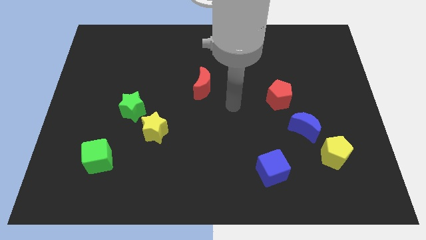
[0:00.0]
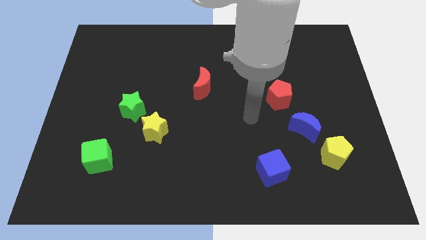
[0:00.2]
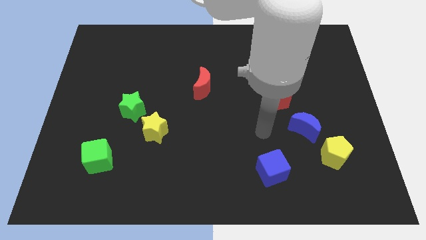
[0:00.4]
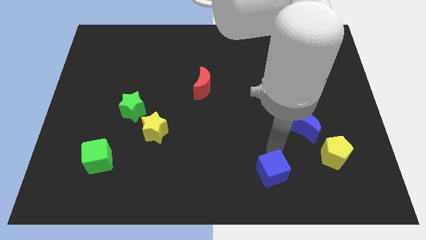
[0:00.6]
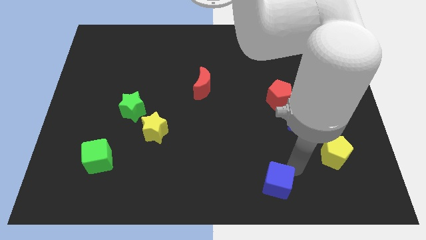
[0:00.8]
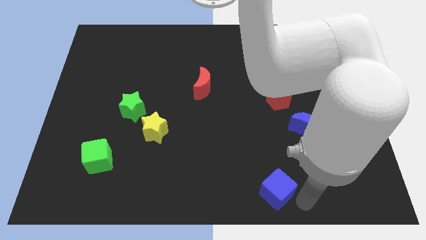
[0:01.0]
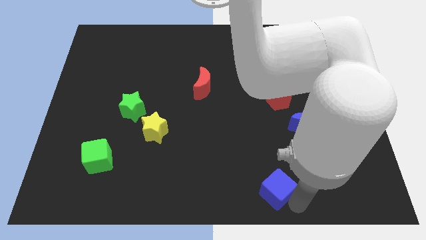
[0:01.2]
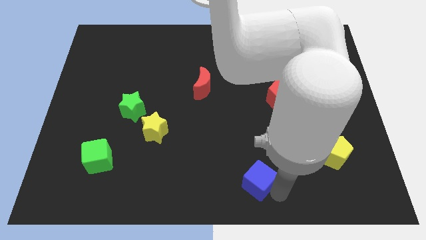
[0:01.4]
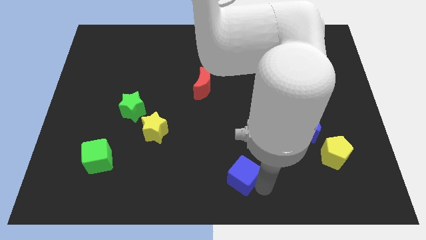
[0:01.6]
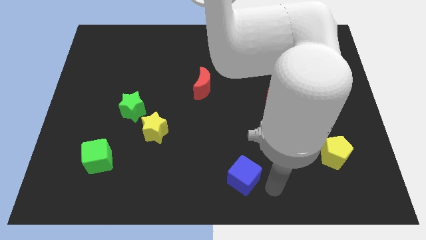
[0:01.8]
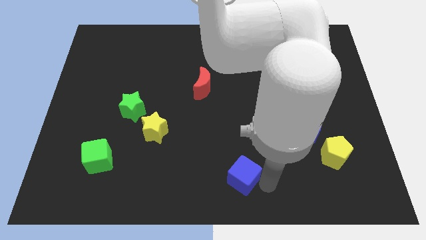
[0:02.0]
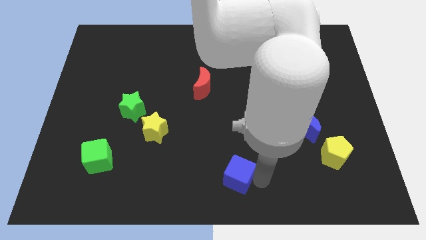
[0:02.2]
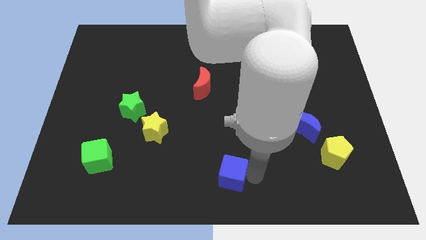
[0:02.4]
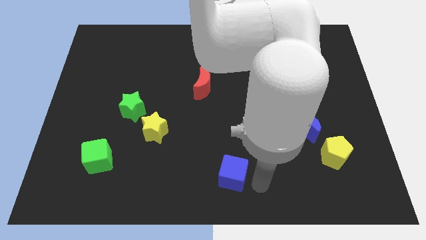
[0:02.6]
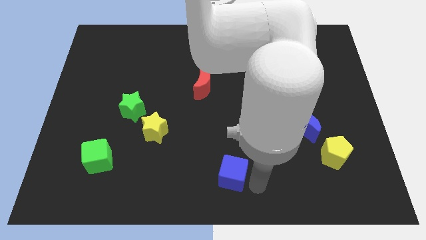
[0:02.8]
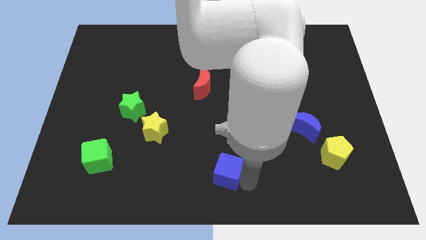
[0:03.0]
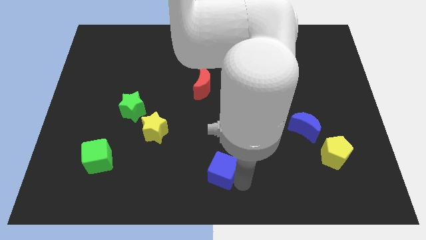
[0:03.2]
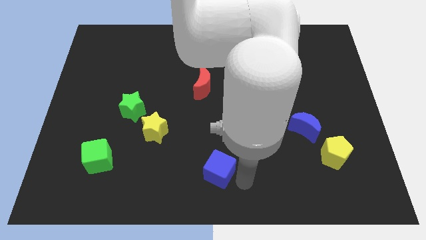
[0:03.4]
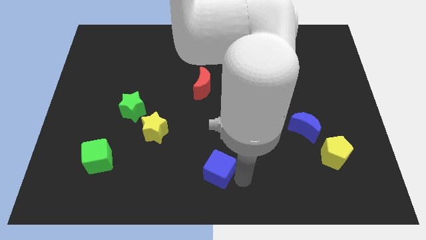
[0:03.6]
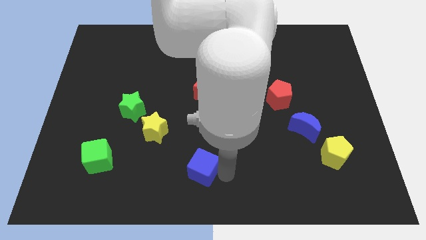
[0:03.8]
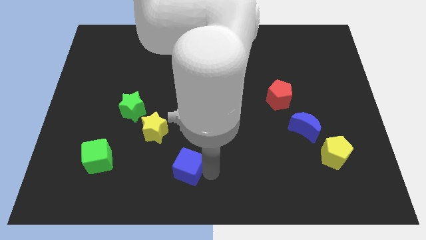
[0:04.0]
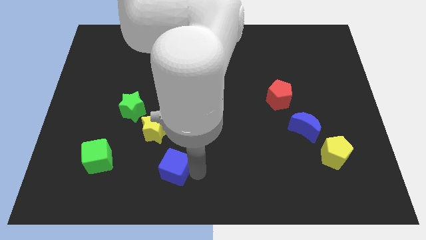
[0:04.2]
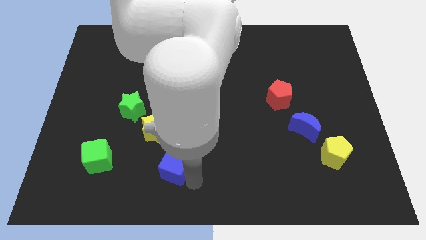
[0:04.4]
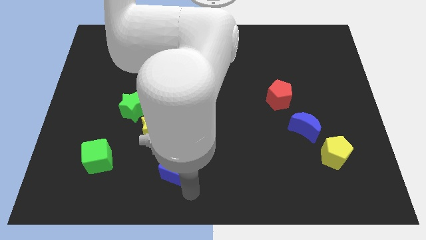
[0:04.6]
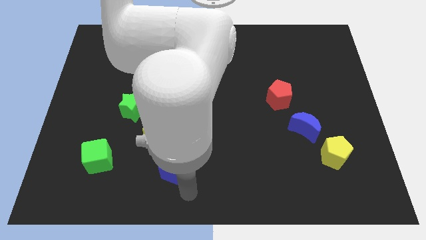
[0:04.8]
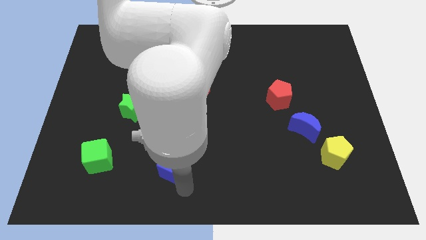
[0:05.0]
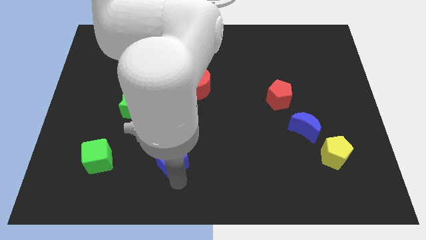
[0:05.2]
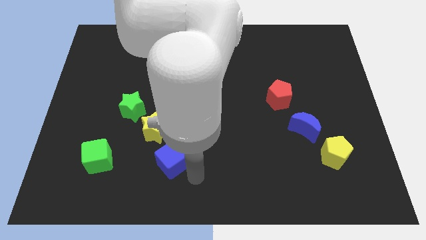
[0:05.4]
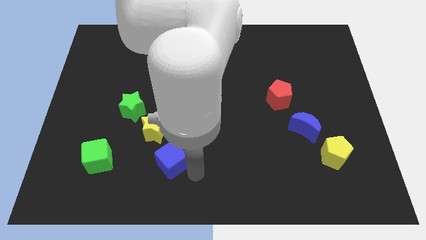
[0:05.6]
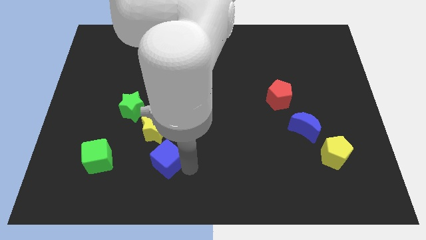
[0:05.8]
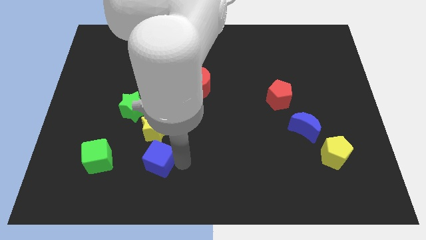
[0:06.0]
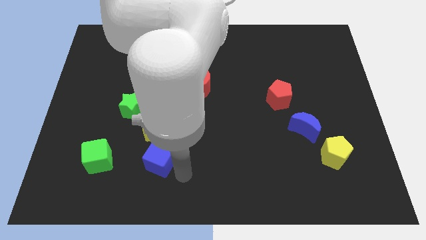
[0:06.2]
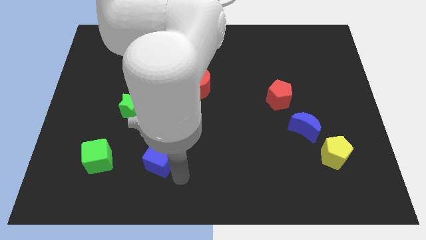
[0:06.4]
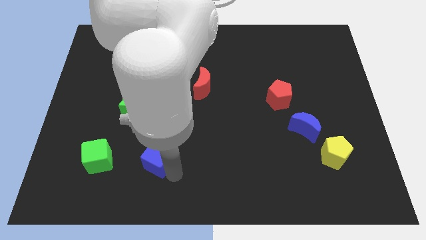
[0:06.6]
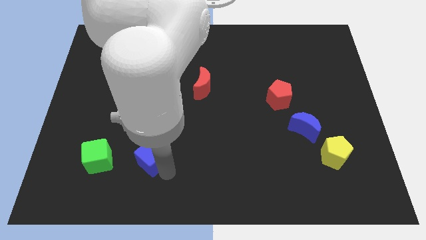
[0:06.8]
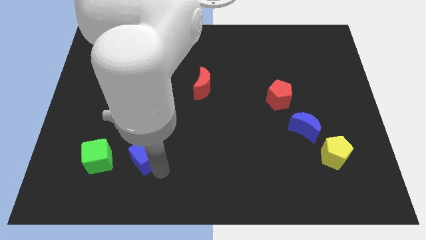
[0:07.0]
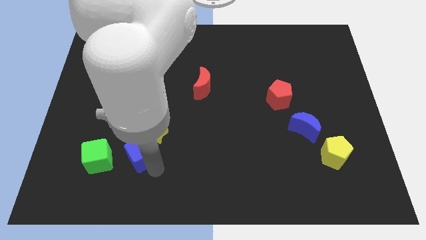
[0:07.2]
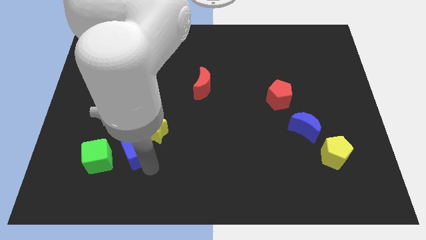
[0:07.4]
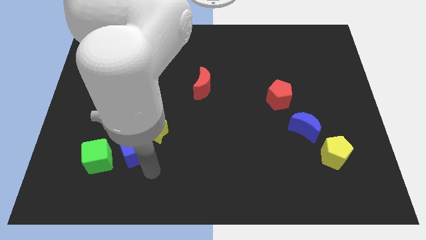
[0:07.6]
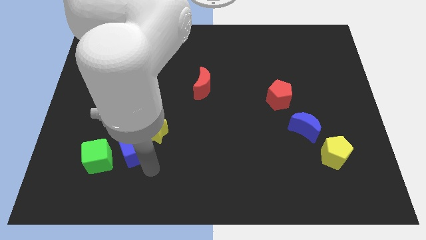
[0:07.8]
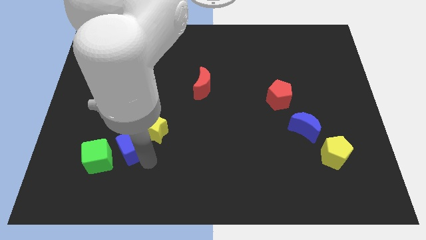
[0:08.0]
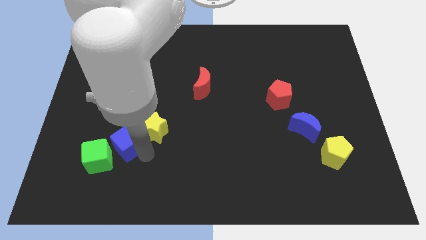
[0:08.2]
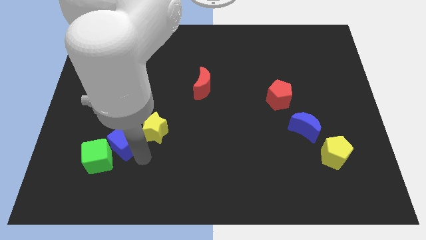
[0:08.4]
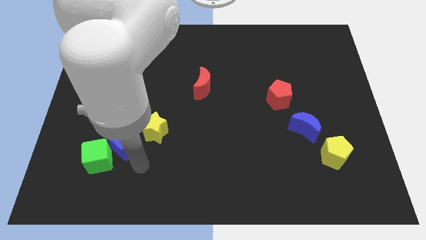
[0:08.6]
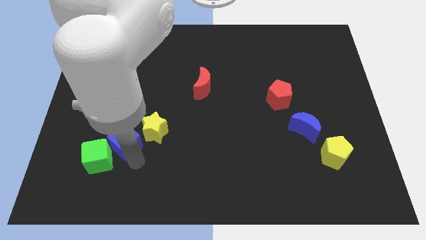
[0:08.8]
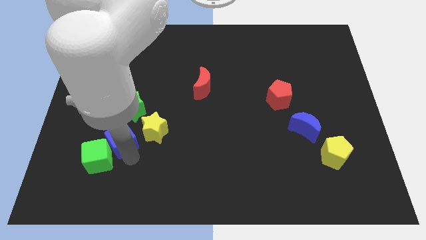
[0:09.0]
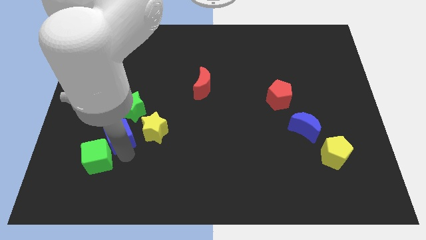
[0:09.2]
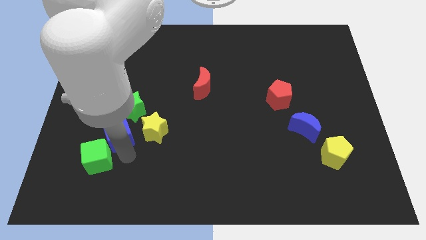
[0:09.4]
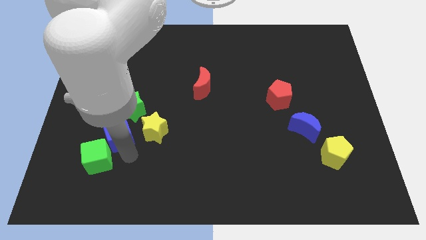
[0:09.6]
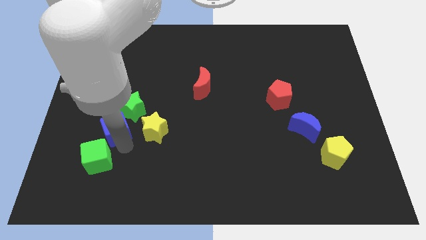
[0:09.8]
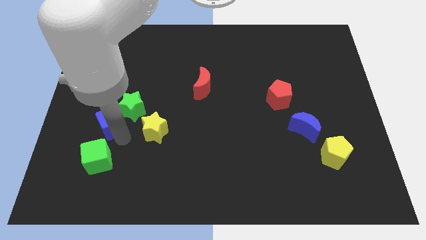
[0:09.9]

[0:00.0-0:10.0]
put the blue cube just left of the green star

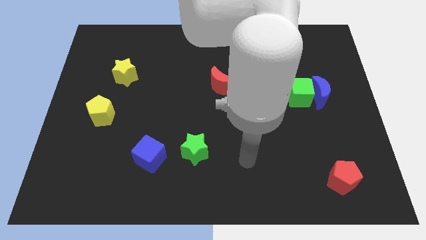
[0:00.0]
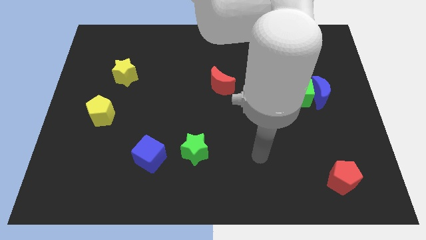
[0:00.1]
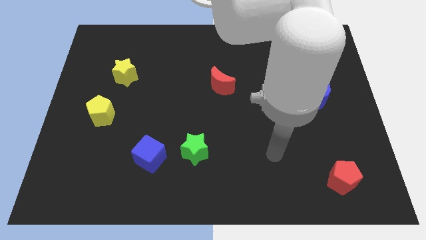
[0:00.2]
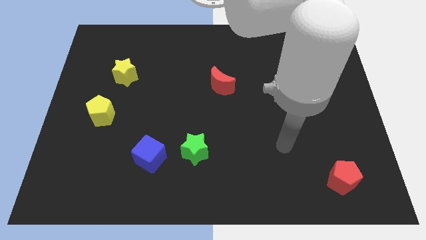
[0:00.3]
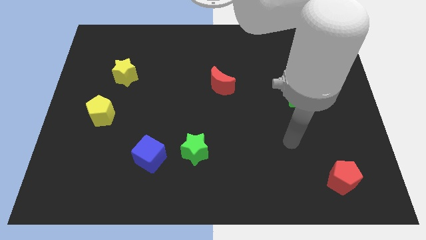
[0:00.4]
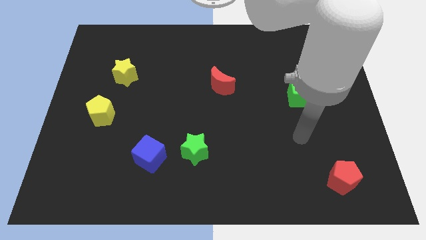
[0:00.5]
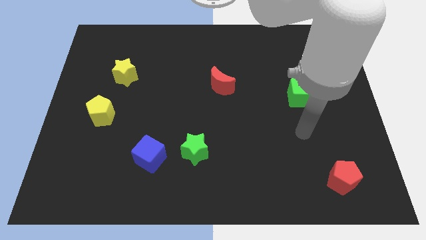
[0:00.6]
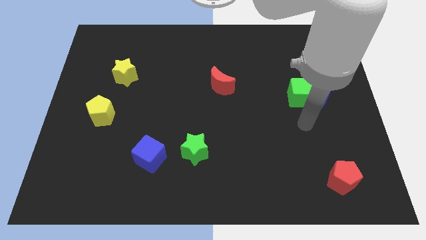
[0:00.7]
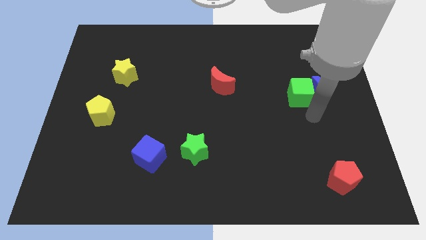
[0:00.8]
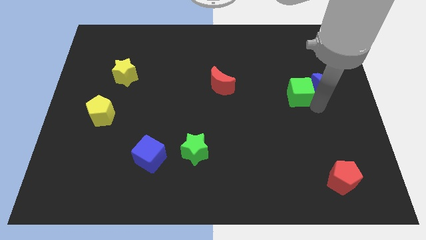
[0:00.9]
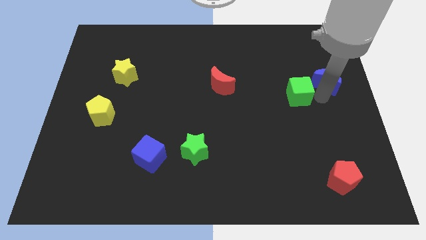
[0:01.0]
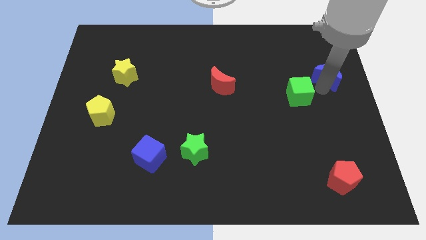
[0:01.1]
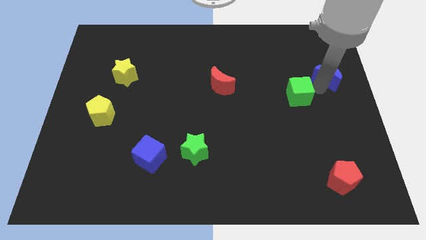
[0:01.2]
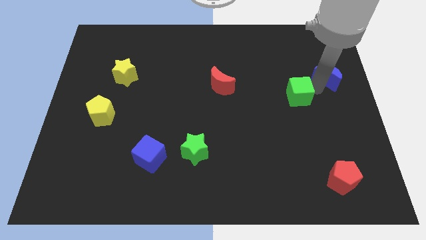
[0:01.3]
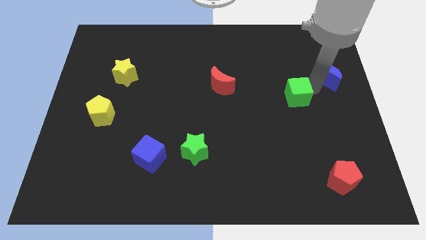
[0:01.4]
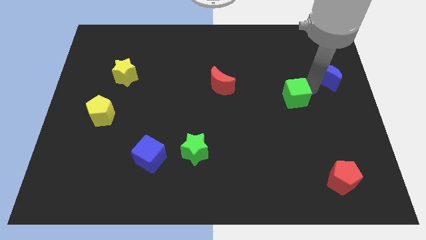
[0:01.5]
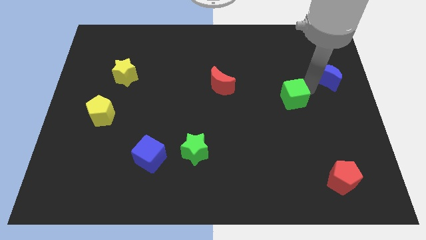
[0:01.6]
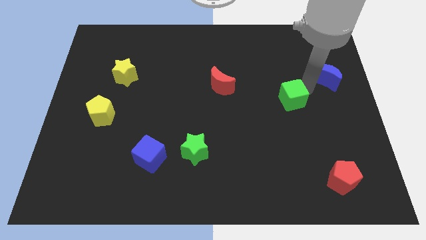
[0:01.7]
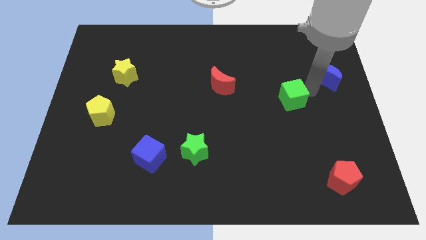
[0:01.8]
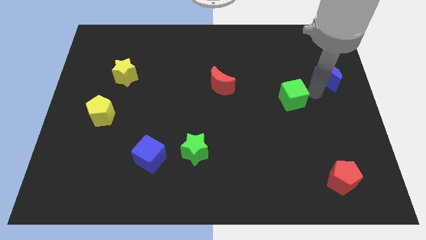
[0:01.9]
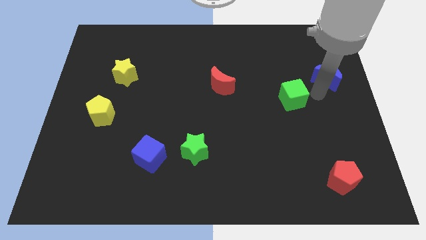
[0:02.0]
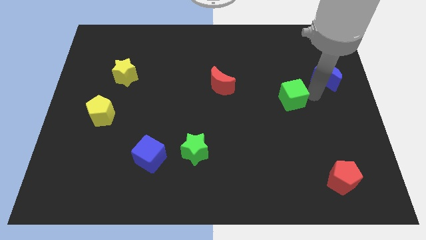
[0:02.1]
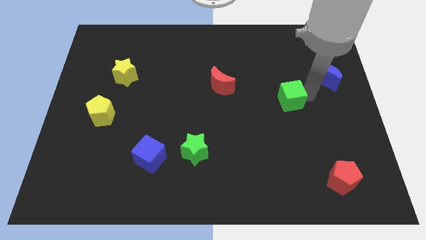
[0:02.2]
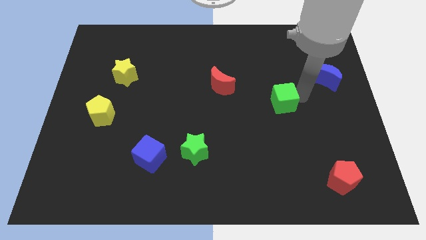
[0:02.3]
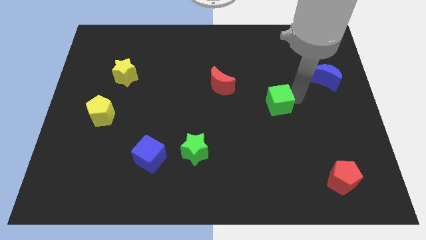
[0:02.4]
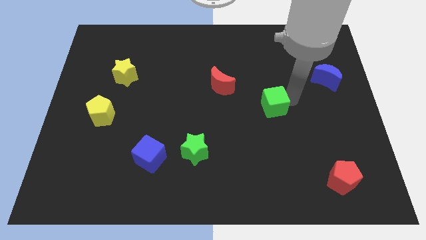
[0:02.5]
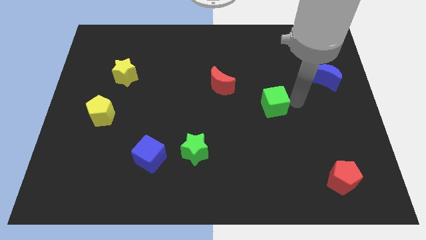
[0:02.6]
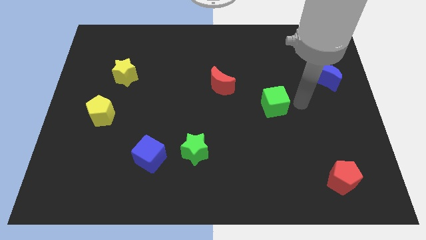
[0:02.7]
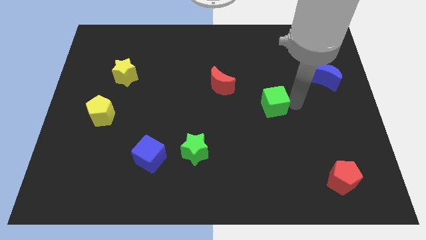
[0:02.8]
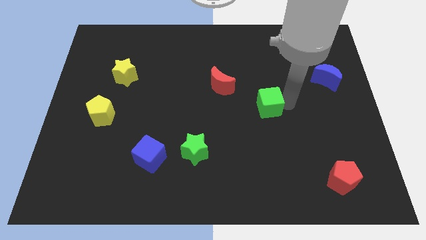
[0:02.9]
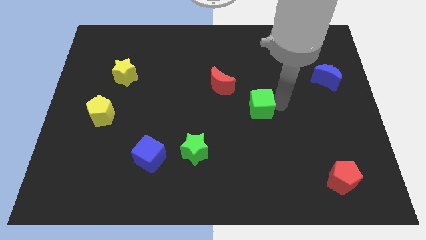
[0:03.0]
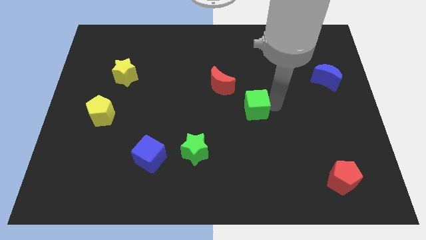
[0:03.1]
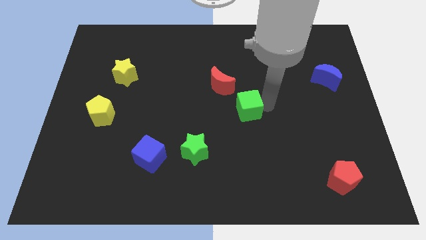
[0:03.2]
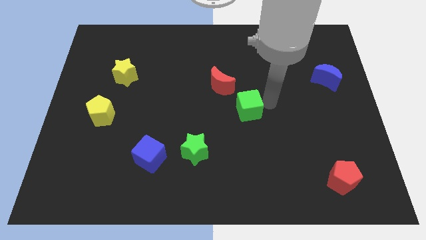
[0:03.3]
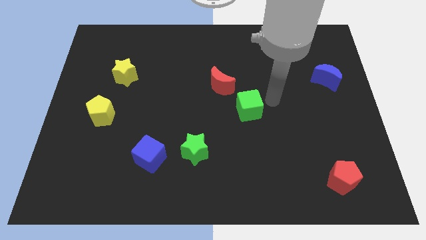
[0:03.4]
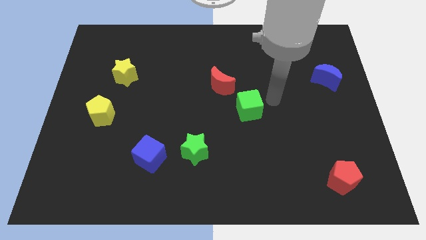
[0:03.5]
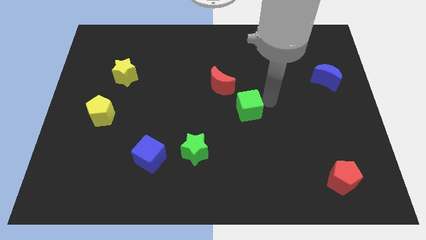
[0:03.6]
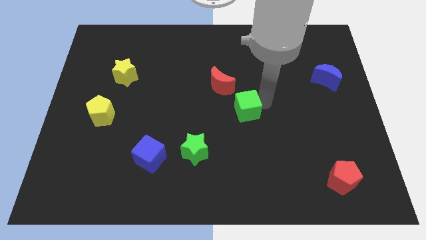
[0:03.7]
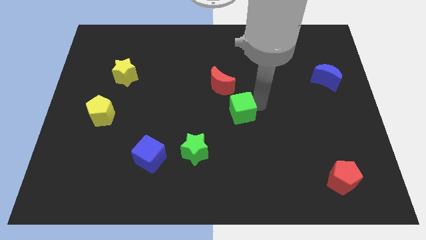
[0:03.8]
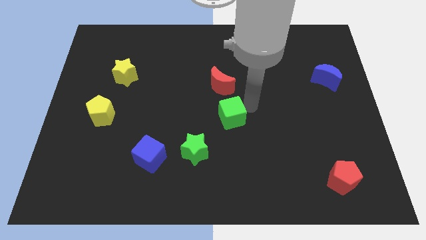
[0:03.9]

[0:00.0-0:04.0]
slide the green cube diagonally up and to the right of the green star
